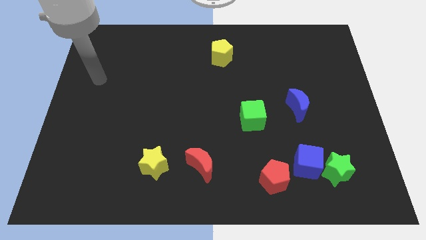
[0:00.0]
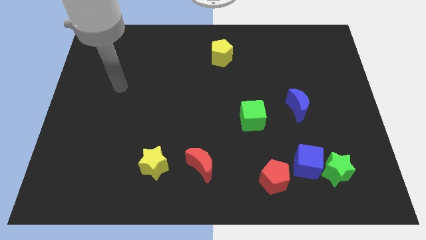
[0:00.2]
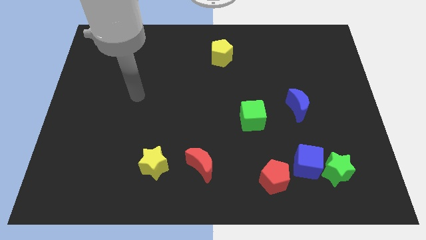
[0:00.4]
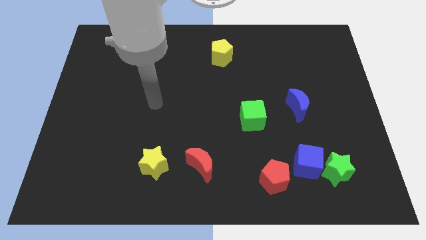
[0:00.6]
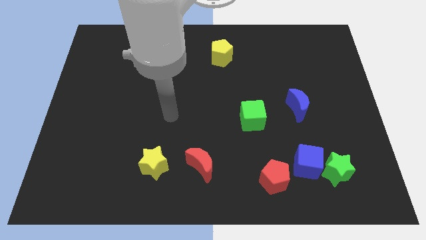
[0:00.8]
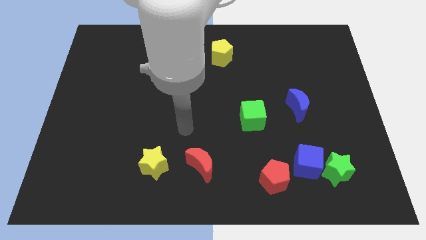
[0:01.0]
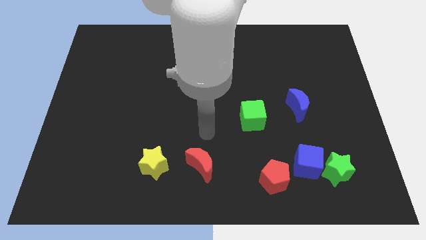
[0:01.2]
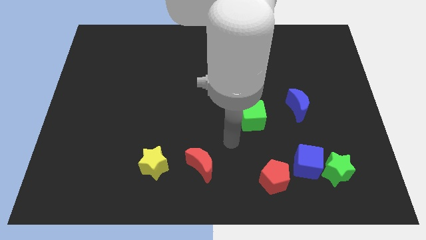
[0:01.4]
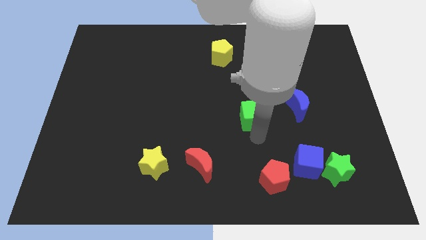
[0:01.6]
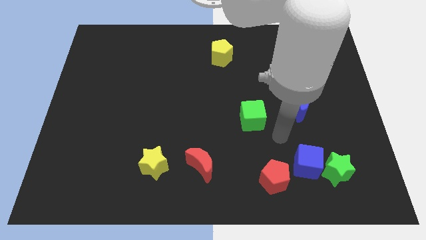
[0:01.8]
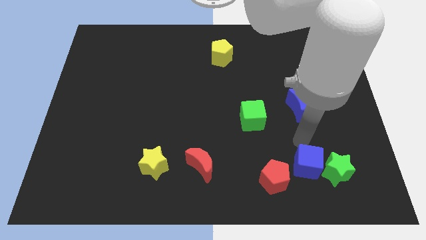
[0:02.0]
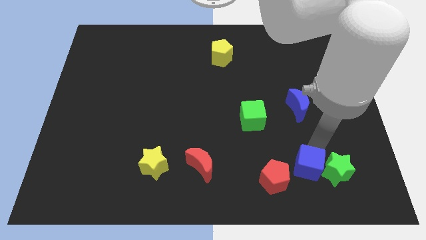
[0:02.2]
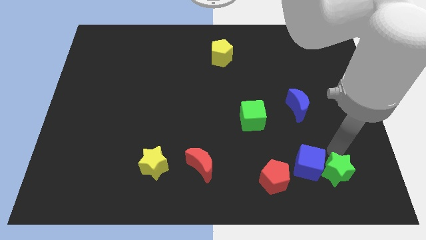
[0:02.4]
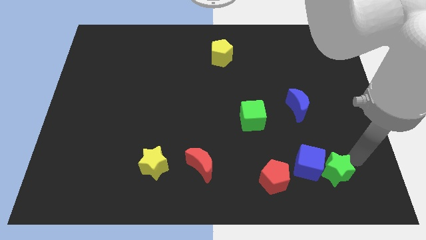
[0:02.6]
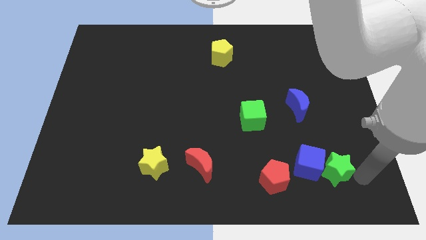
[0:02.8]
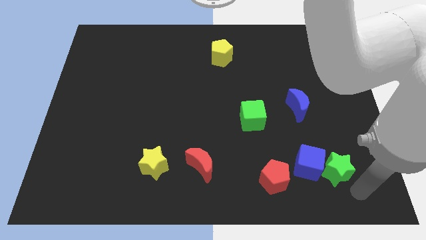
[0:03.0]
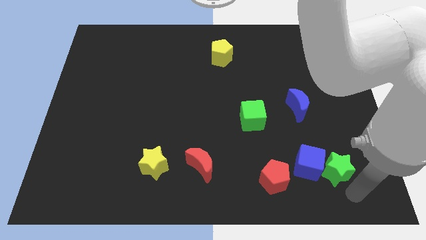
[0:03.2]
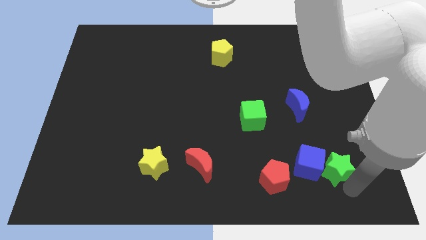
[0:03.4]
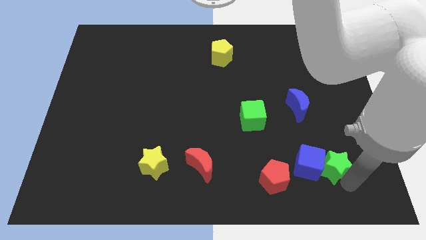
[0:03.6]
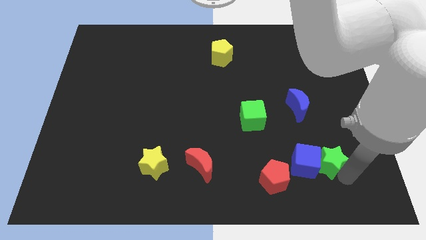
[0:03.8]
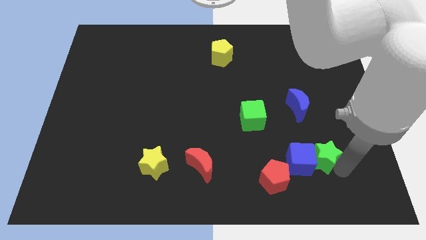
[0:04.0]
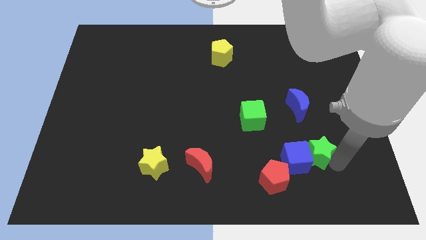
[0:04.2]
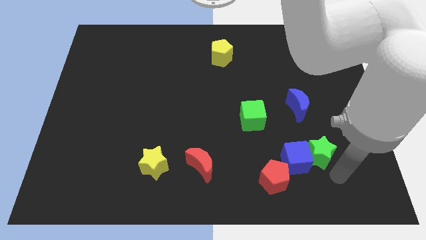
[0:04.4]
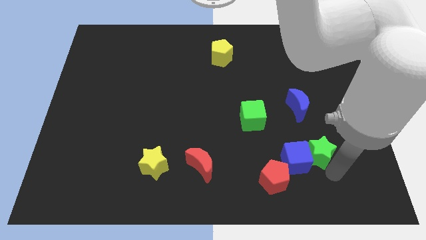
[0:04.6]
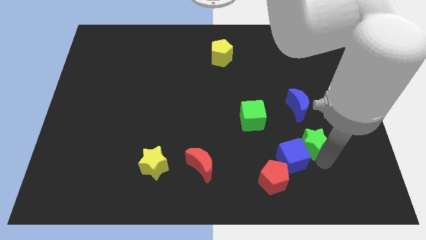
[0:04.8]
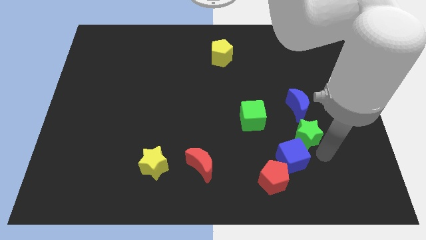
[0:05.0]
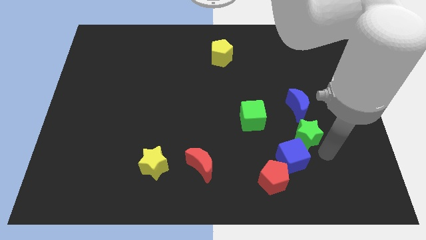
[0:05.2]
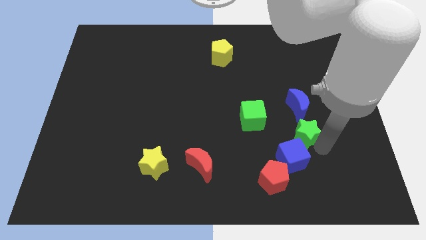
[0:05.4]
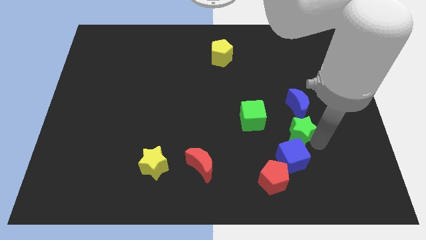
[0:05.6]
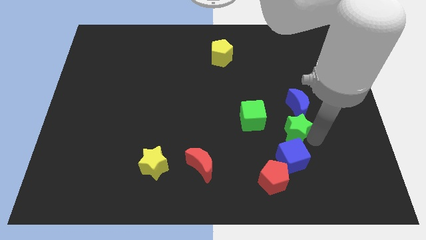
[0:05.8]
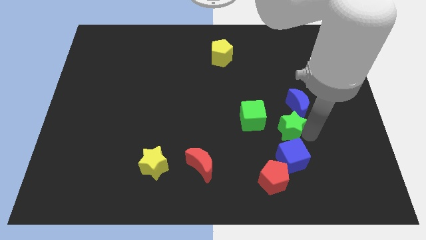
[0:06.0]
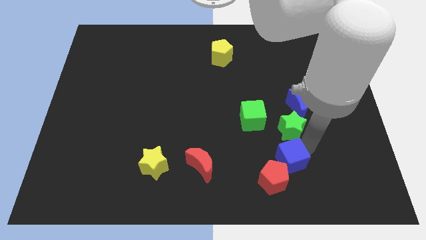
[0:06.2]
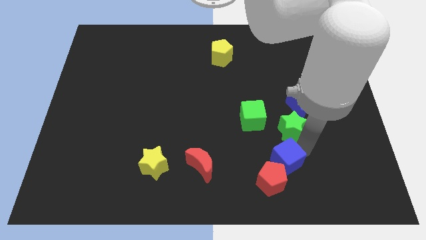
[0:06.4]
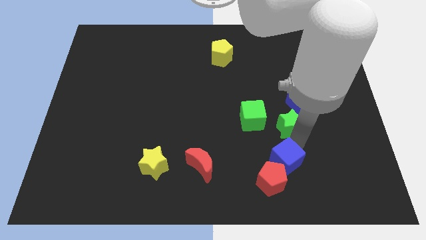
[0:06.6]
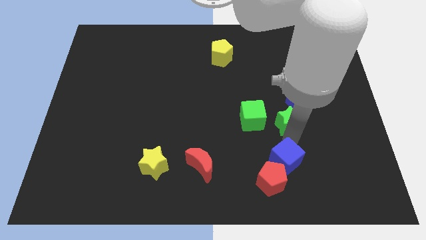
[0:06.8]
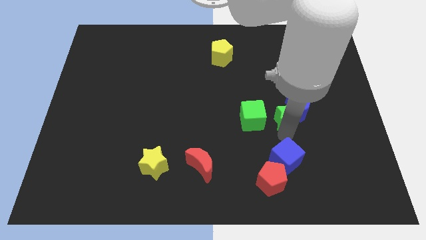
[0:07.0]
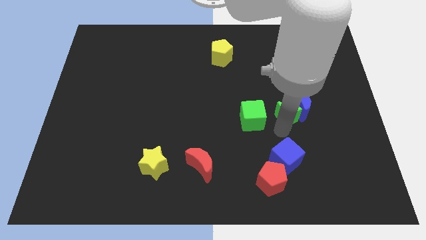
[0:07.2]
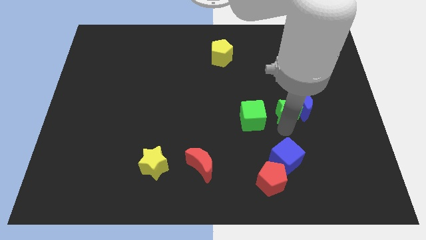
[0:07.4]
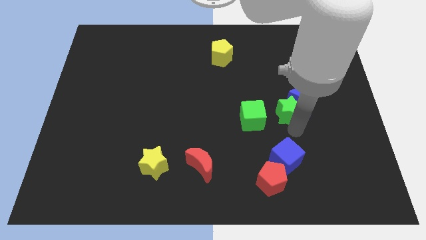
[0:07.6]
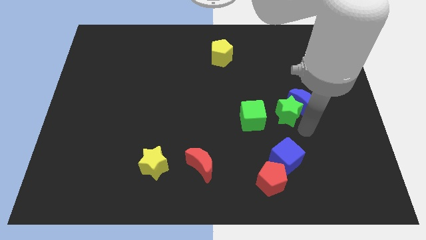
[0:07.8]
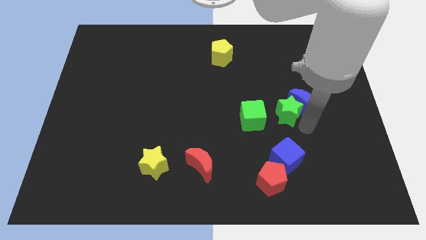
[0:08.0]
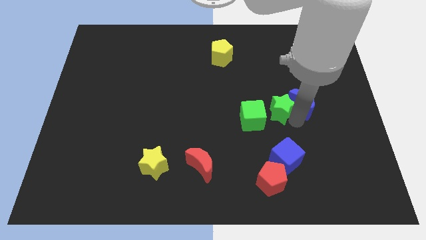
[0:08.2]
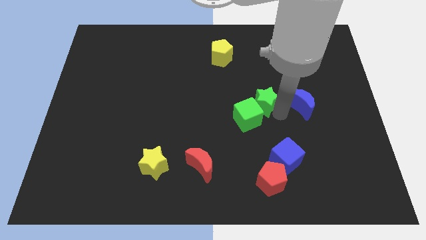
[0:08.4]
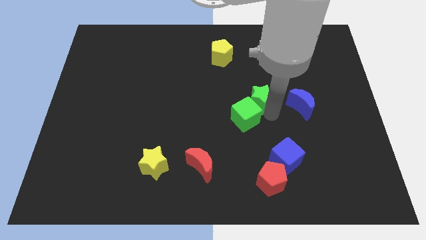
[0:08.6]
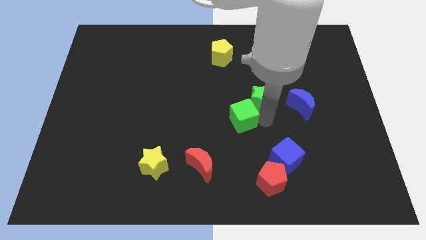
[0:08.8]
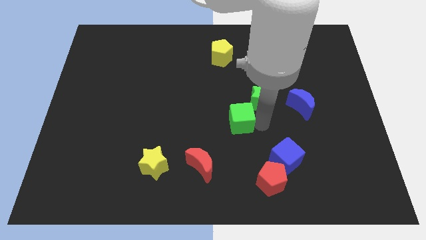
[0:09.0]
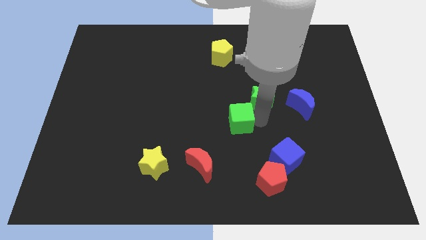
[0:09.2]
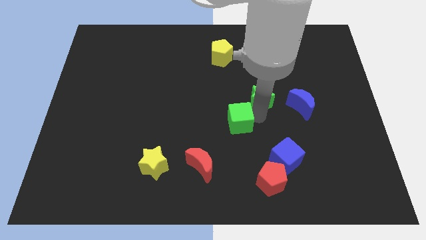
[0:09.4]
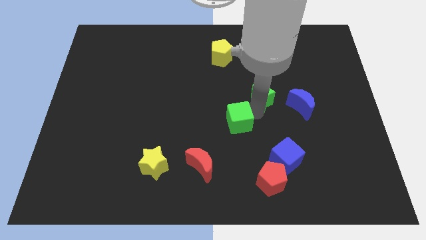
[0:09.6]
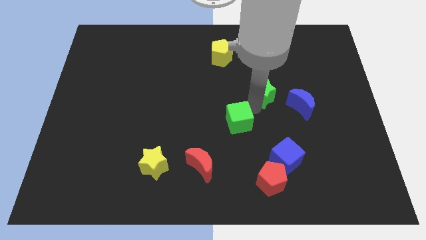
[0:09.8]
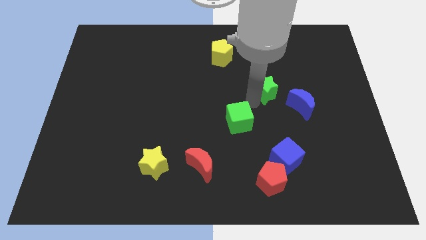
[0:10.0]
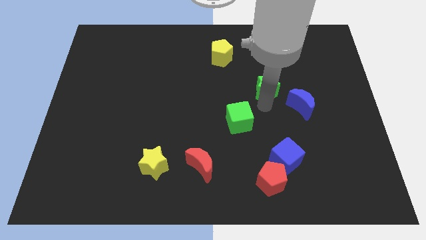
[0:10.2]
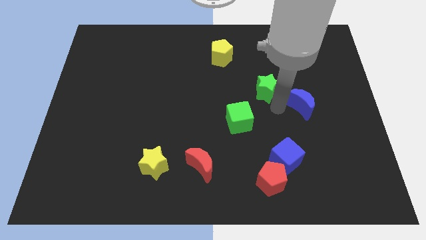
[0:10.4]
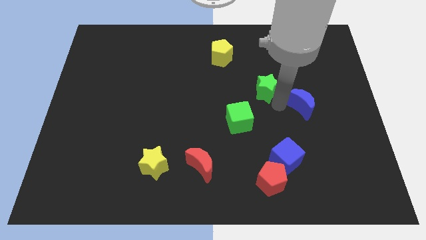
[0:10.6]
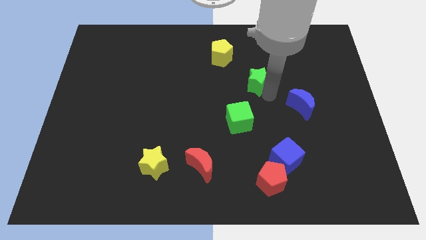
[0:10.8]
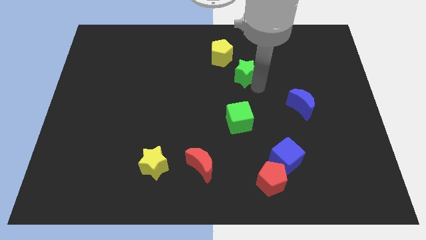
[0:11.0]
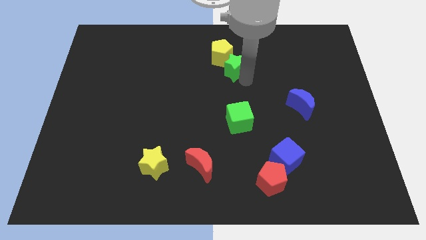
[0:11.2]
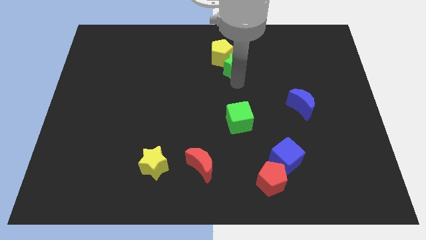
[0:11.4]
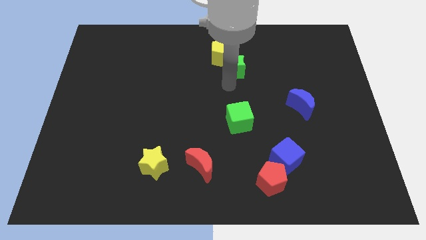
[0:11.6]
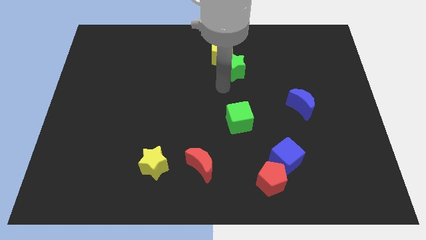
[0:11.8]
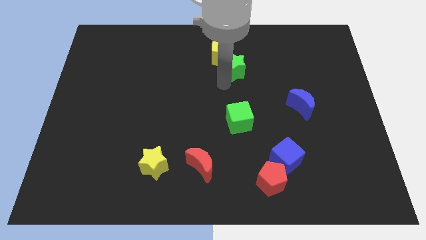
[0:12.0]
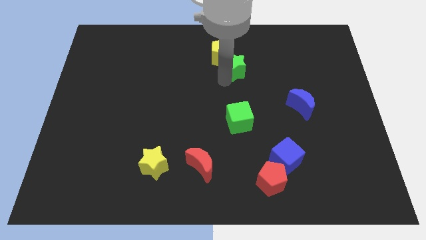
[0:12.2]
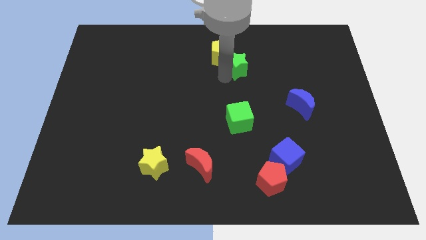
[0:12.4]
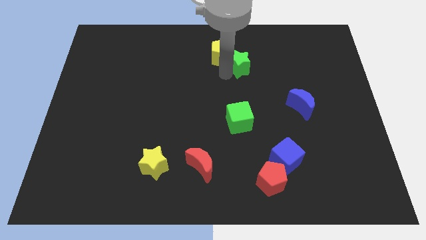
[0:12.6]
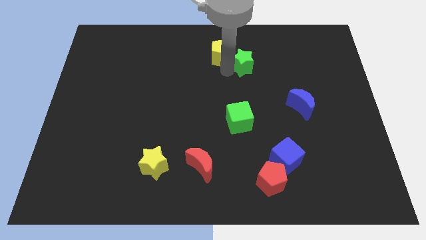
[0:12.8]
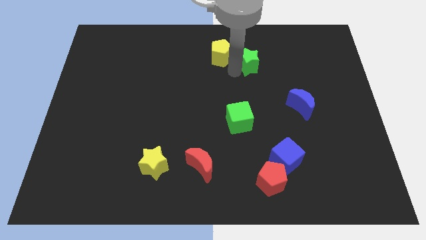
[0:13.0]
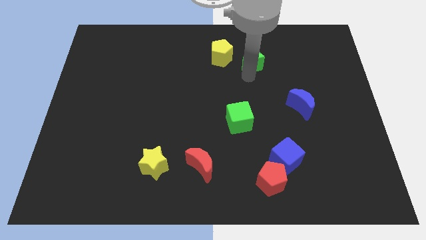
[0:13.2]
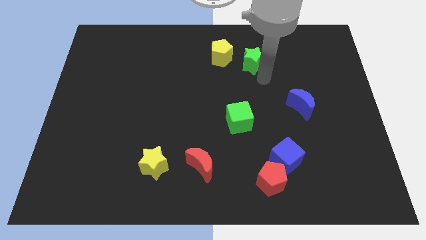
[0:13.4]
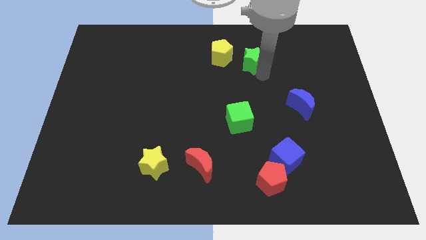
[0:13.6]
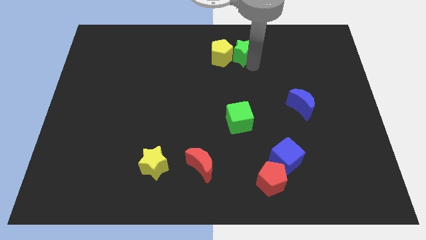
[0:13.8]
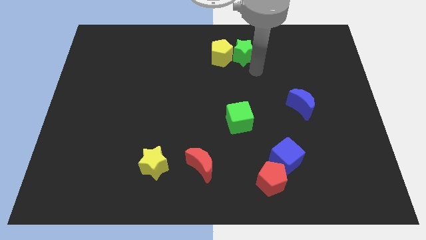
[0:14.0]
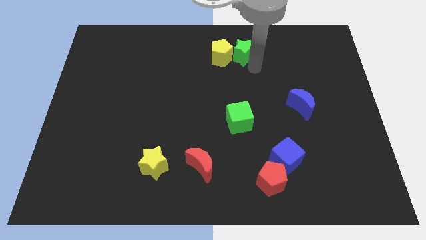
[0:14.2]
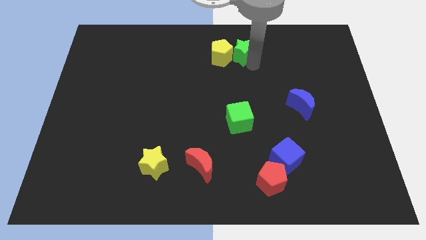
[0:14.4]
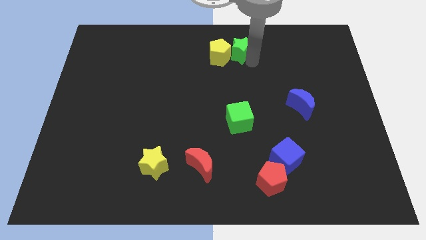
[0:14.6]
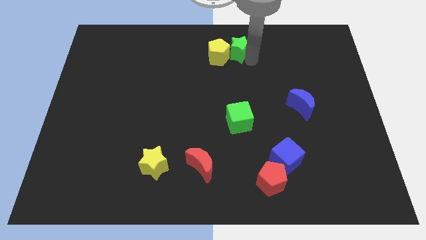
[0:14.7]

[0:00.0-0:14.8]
slide the green star to the towards your base
